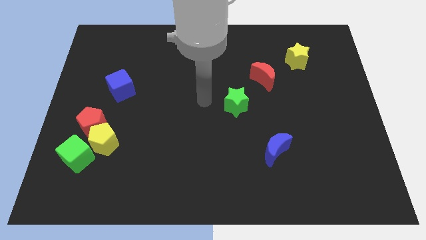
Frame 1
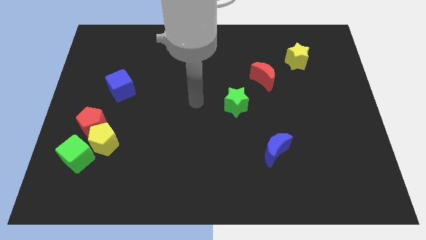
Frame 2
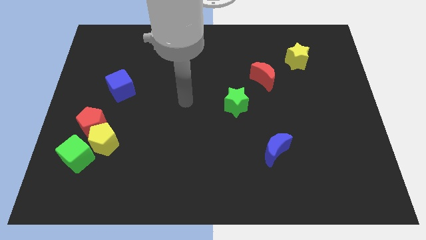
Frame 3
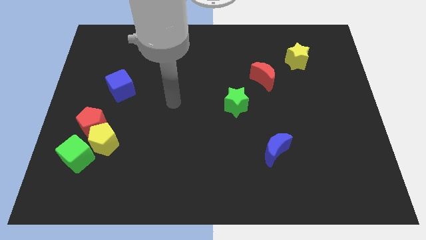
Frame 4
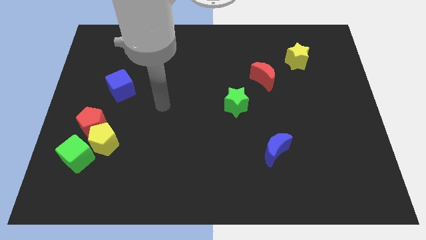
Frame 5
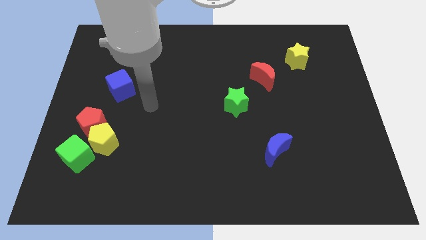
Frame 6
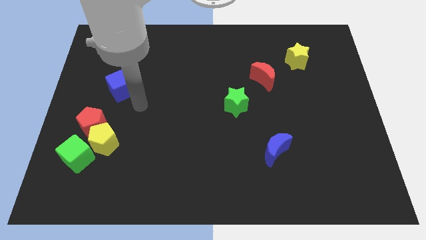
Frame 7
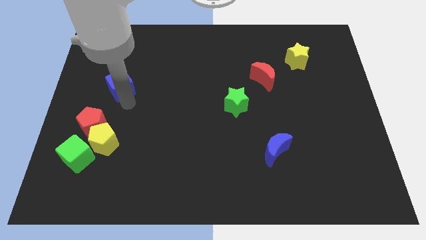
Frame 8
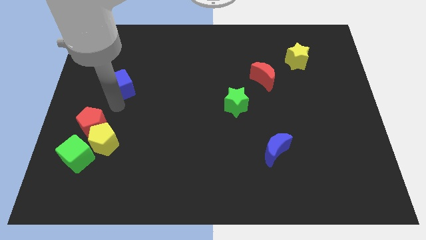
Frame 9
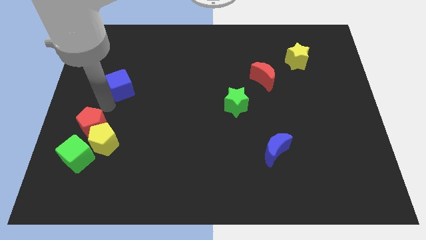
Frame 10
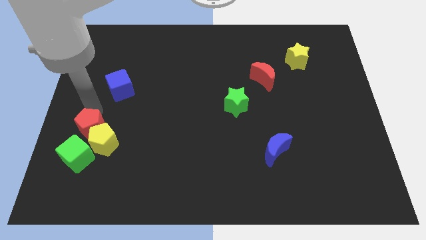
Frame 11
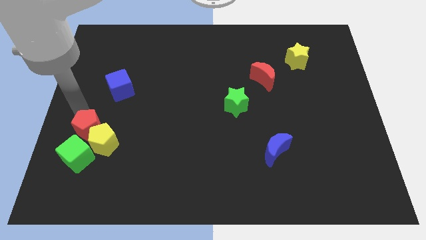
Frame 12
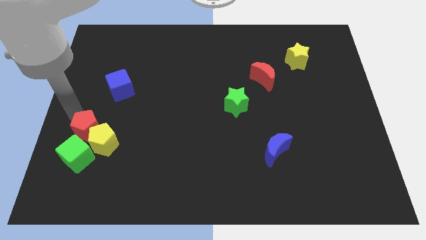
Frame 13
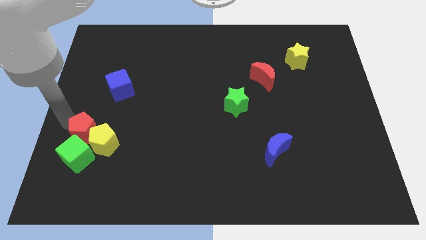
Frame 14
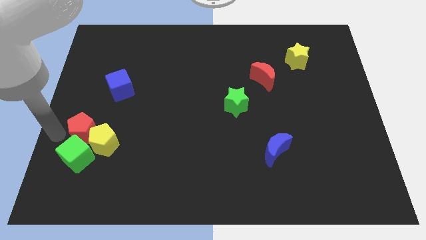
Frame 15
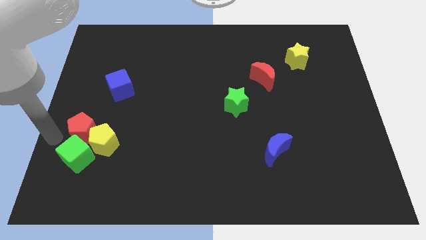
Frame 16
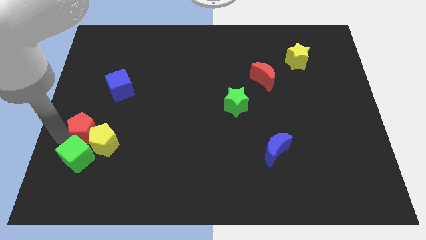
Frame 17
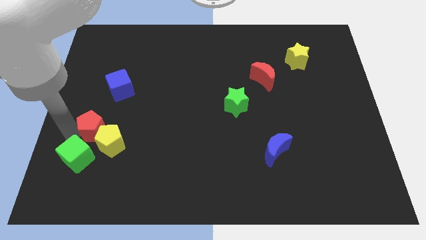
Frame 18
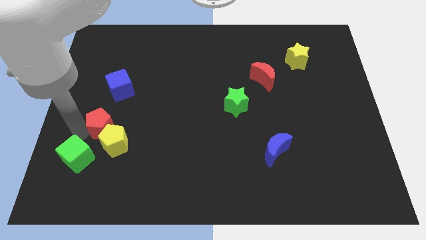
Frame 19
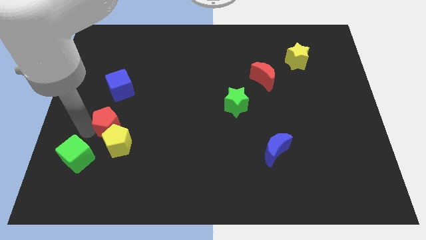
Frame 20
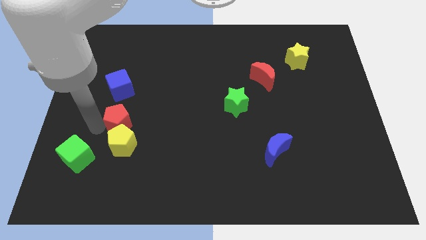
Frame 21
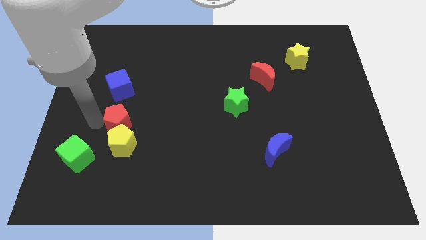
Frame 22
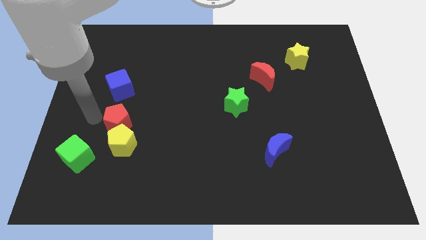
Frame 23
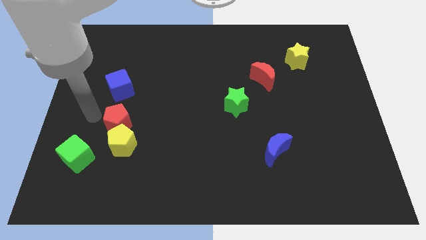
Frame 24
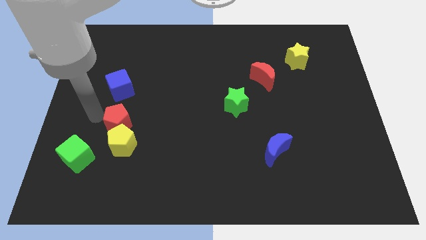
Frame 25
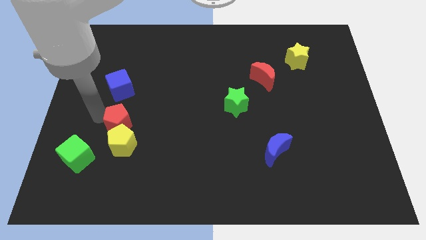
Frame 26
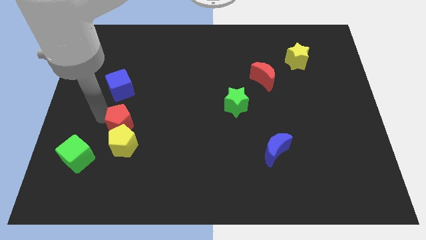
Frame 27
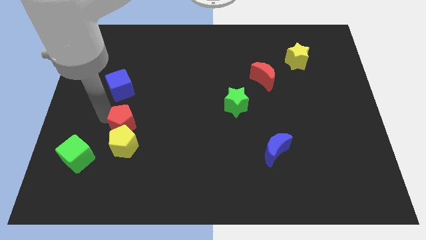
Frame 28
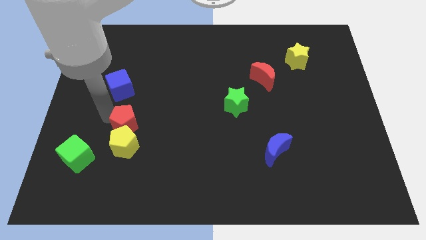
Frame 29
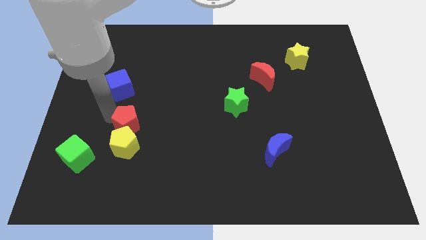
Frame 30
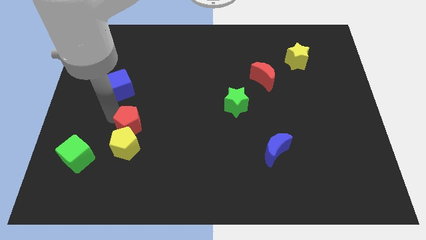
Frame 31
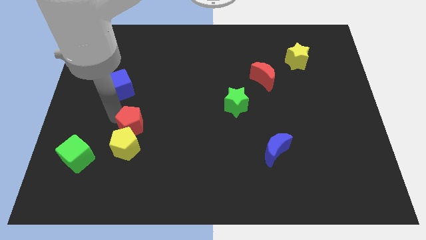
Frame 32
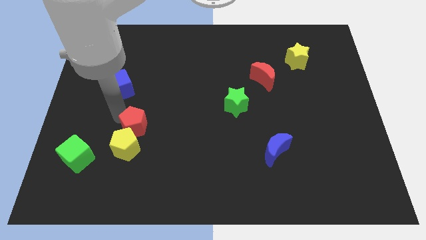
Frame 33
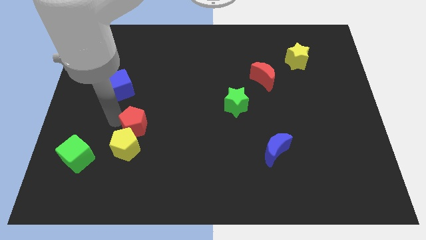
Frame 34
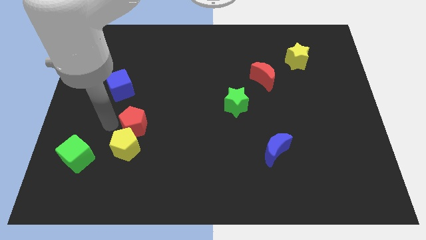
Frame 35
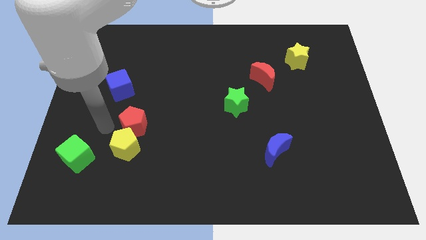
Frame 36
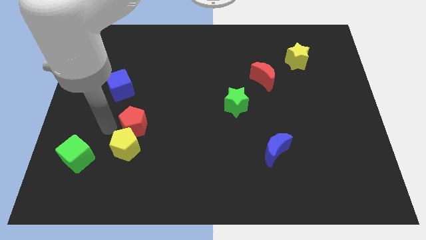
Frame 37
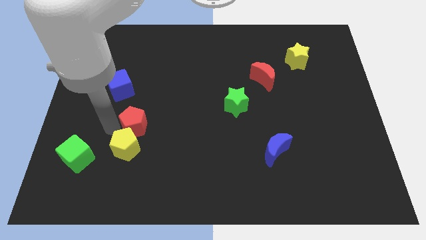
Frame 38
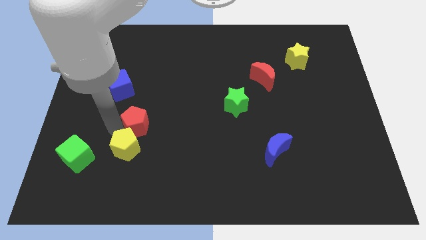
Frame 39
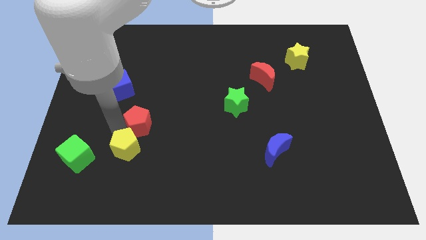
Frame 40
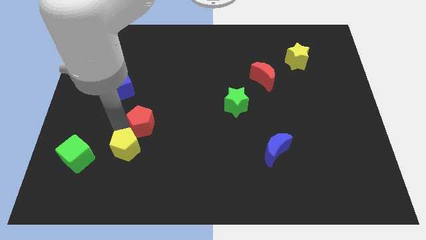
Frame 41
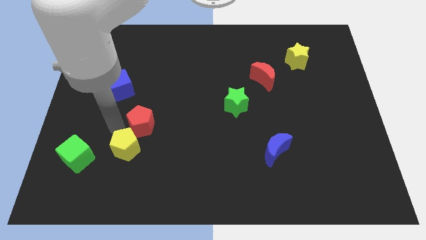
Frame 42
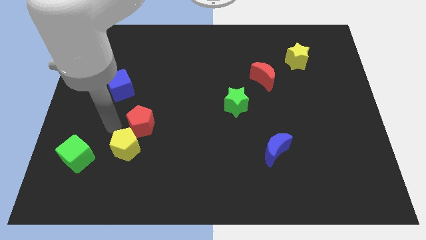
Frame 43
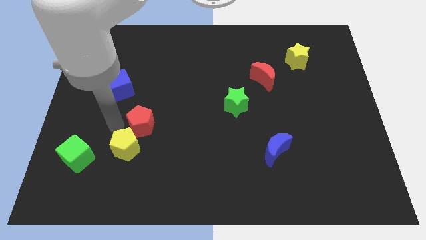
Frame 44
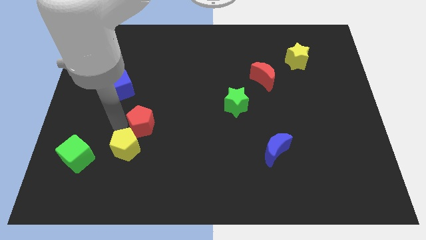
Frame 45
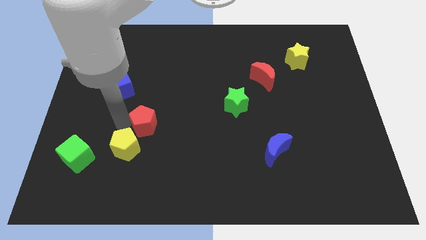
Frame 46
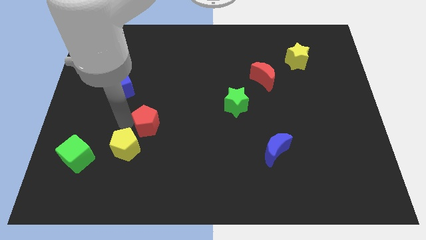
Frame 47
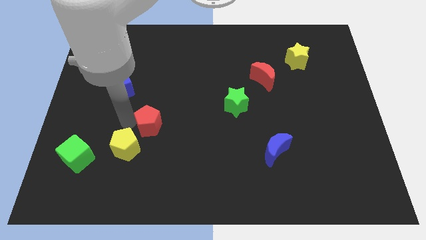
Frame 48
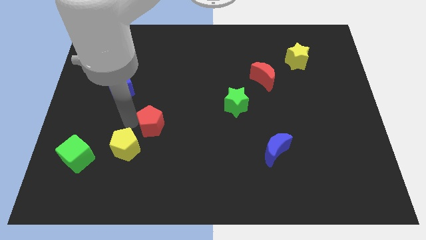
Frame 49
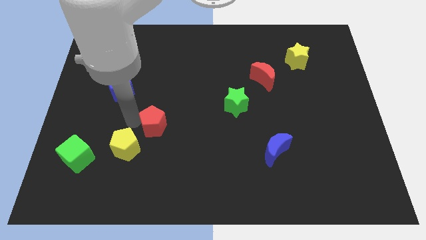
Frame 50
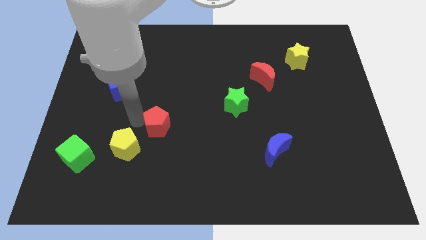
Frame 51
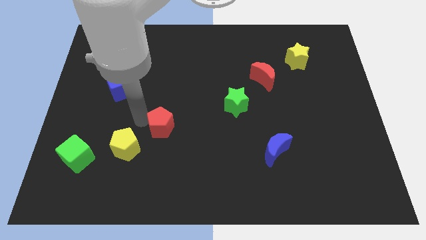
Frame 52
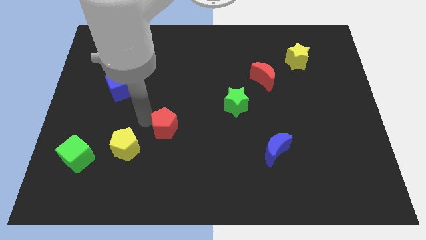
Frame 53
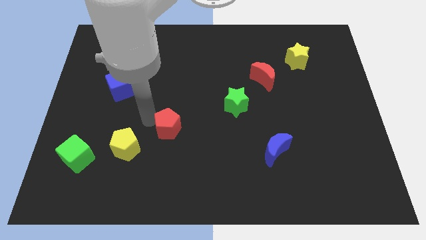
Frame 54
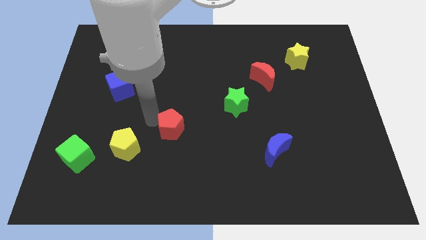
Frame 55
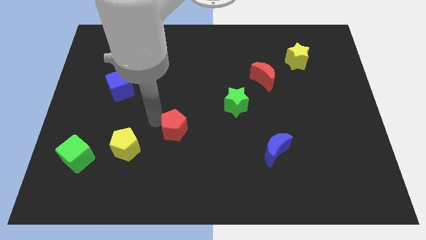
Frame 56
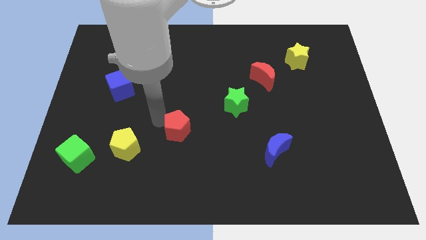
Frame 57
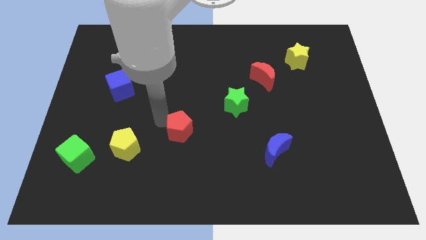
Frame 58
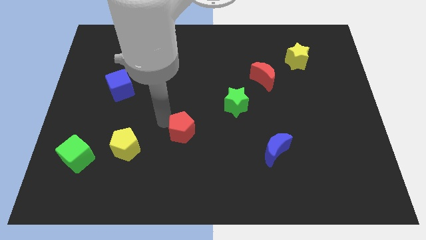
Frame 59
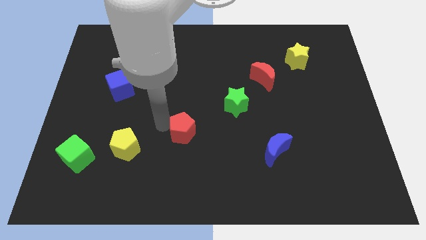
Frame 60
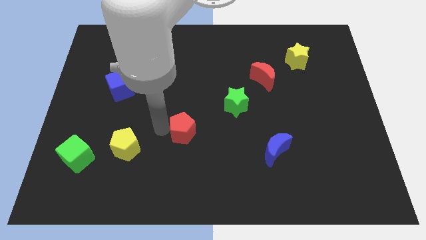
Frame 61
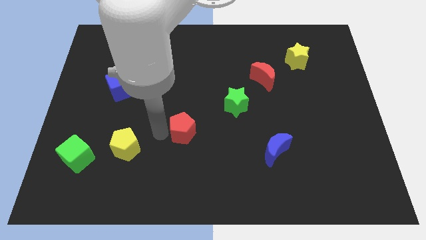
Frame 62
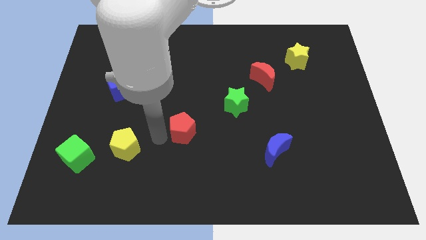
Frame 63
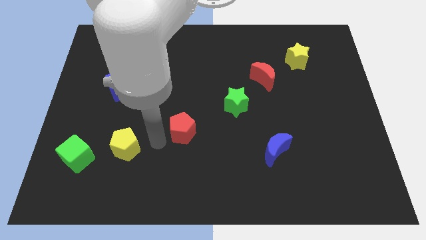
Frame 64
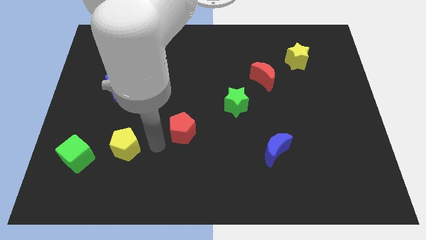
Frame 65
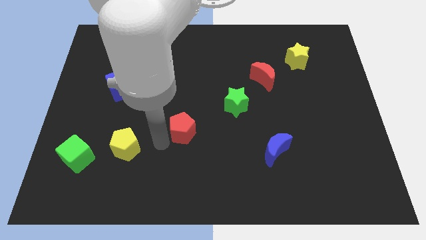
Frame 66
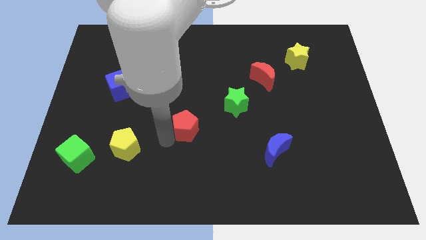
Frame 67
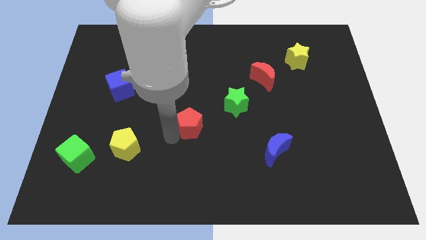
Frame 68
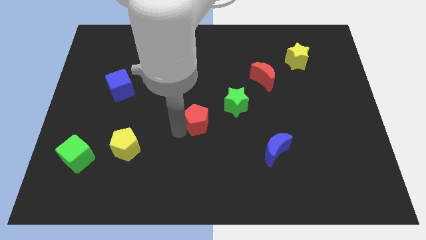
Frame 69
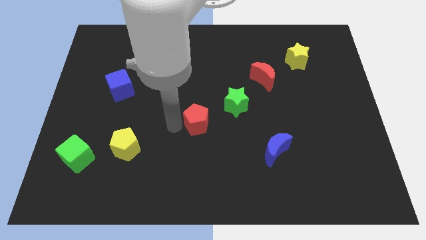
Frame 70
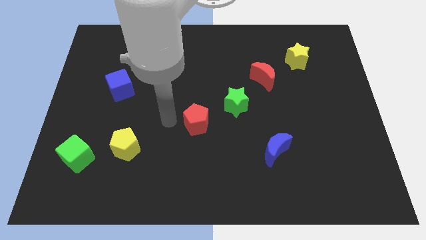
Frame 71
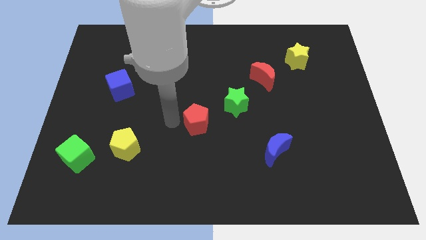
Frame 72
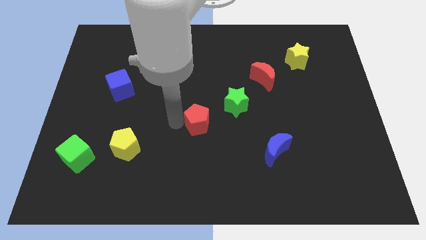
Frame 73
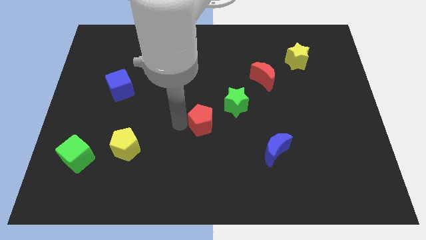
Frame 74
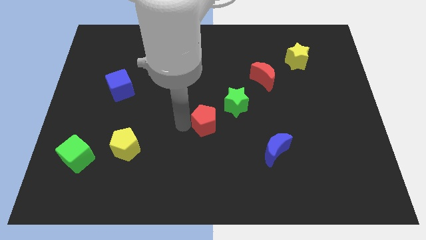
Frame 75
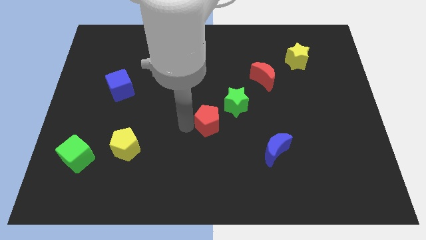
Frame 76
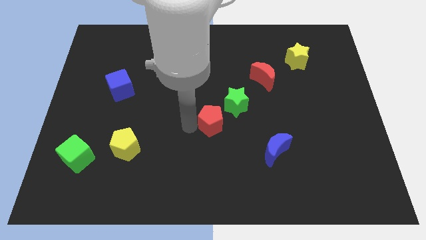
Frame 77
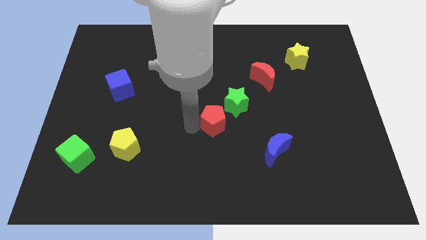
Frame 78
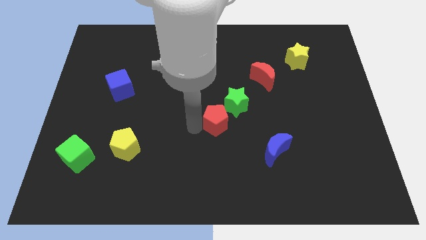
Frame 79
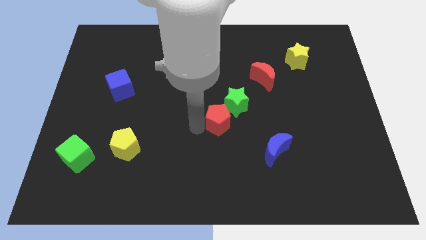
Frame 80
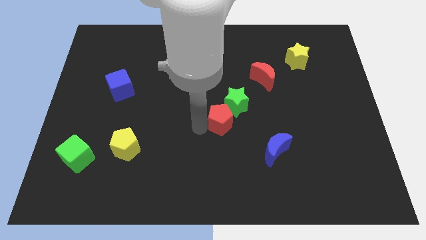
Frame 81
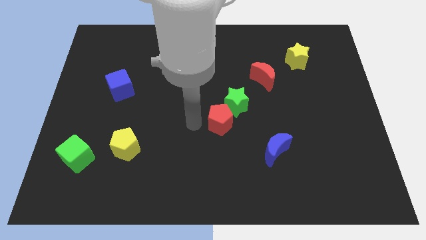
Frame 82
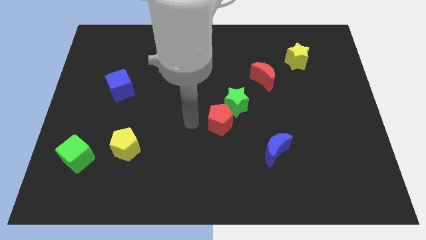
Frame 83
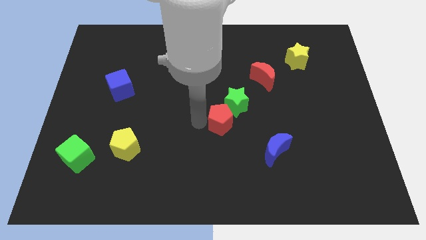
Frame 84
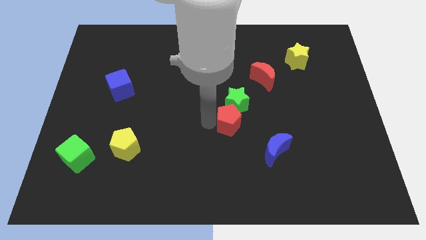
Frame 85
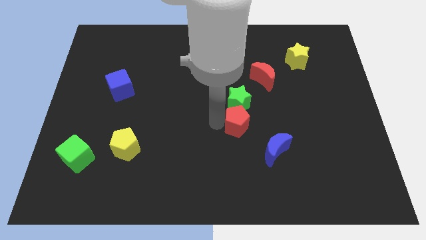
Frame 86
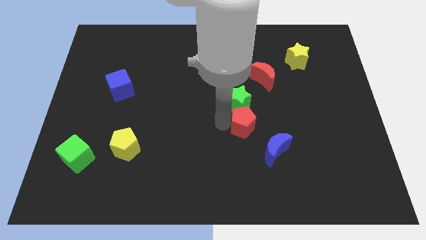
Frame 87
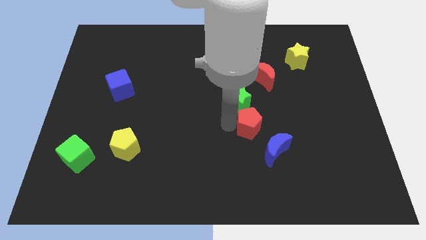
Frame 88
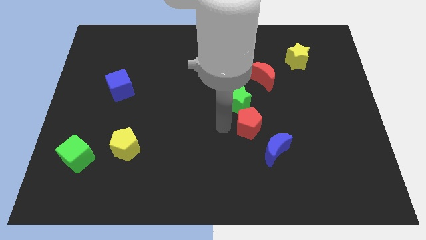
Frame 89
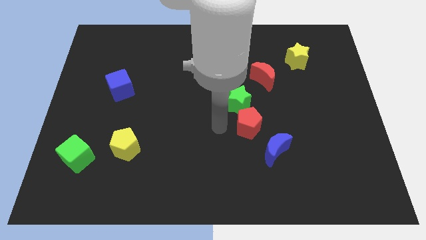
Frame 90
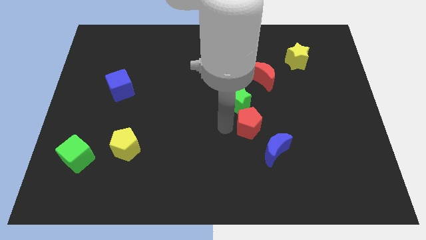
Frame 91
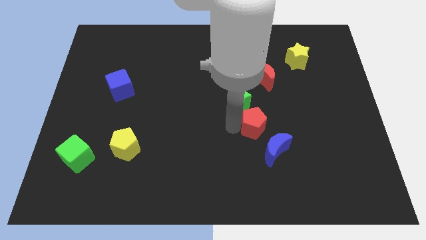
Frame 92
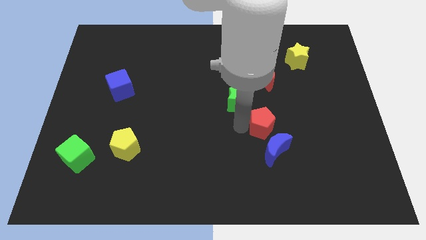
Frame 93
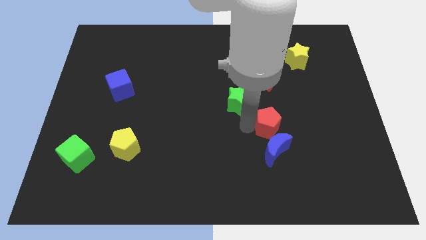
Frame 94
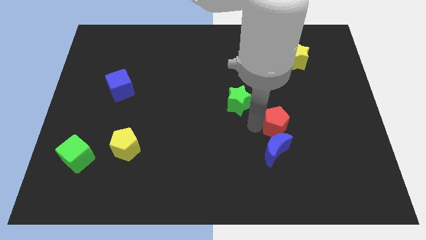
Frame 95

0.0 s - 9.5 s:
move the red pentagon diagonally up and to the right of the blue moon
